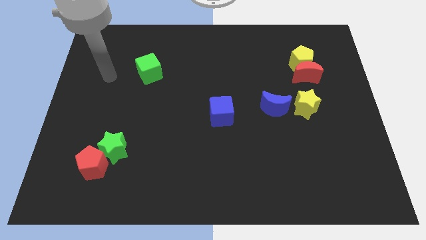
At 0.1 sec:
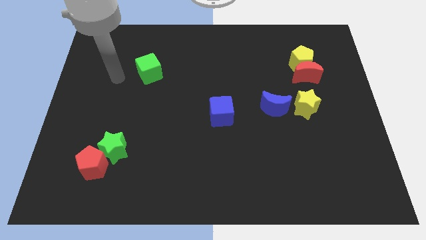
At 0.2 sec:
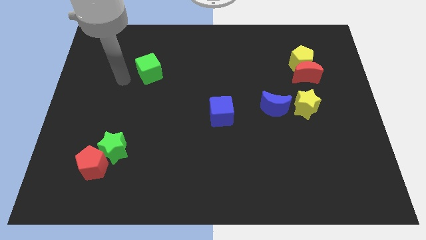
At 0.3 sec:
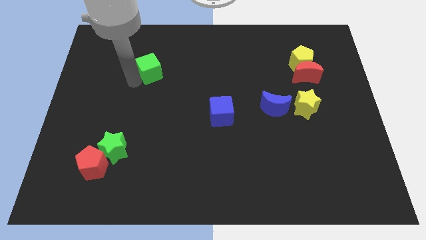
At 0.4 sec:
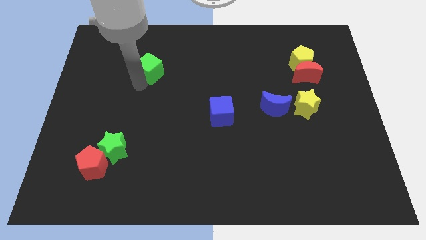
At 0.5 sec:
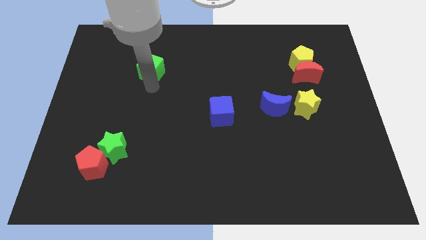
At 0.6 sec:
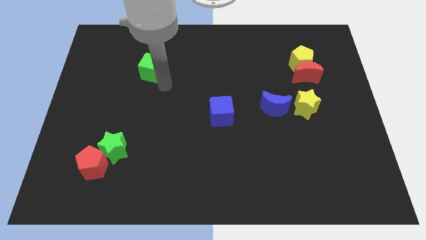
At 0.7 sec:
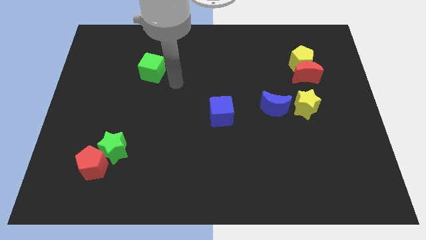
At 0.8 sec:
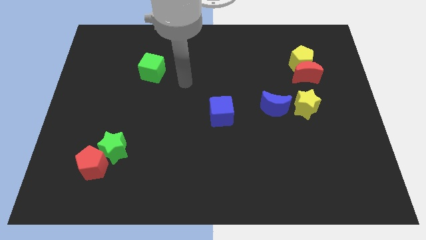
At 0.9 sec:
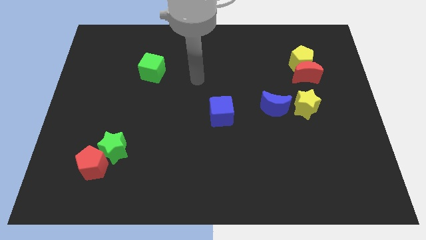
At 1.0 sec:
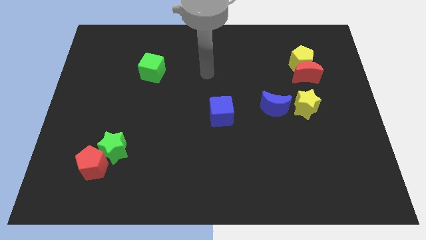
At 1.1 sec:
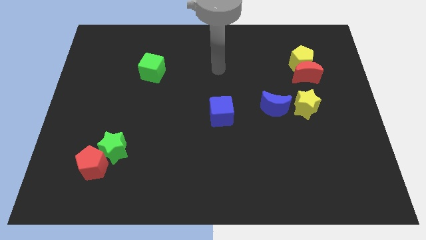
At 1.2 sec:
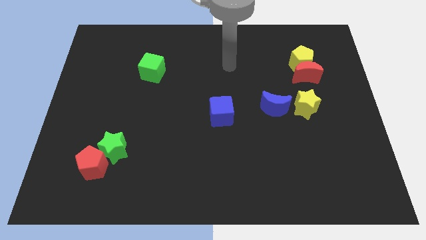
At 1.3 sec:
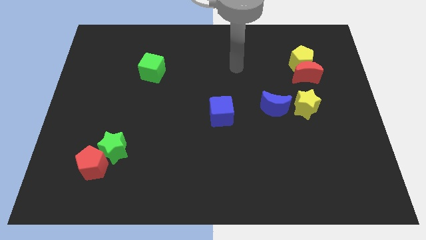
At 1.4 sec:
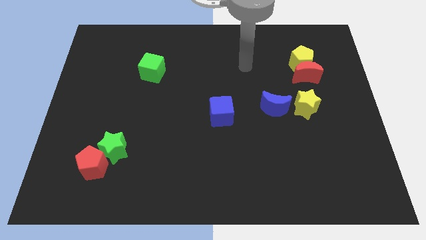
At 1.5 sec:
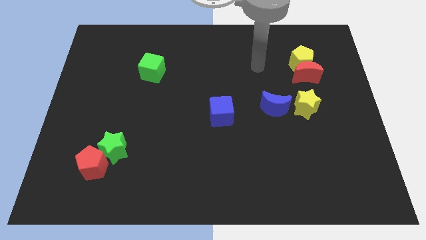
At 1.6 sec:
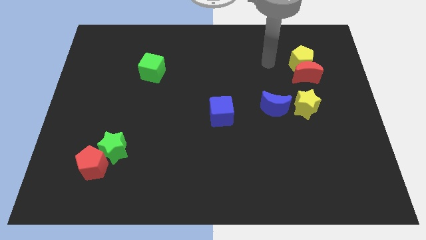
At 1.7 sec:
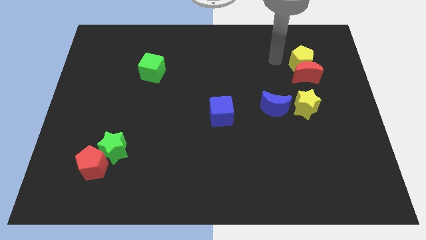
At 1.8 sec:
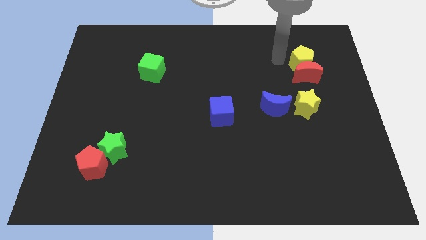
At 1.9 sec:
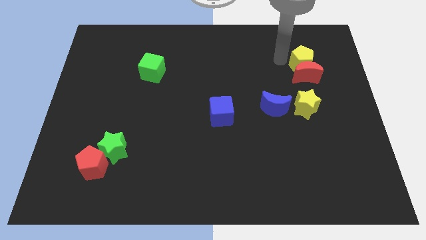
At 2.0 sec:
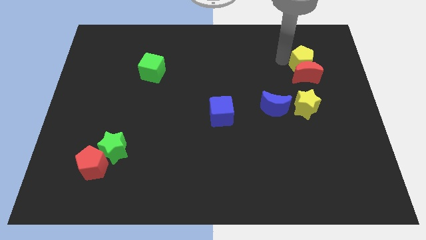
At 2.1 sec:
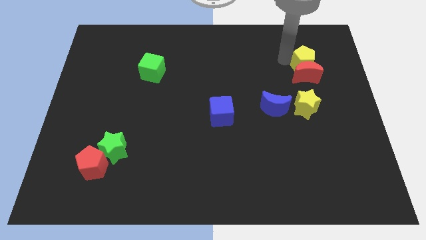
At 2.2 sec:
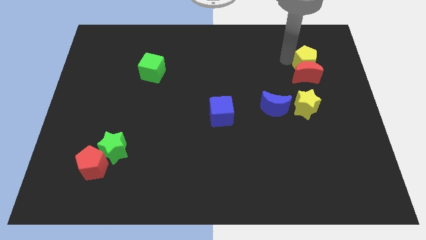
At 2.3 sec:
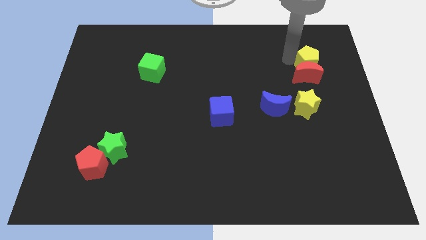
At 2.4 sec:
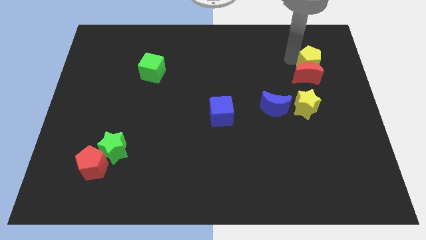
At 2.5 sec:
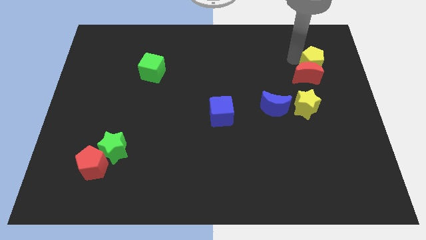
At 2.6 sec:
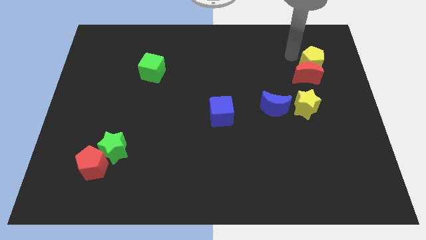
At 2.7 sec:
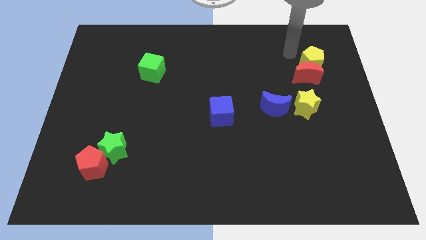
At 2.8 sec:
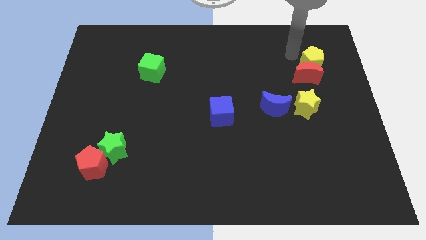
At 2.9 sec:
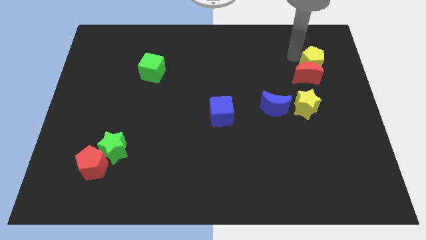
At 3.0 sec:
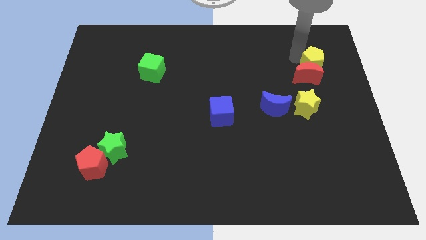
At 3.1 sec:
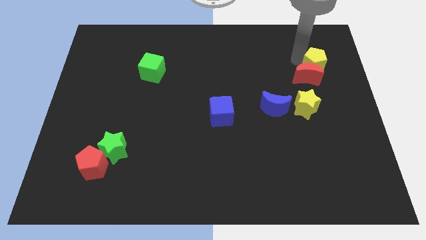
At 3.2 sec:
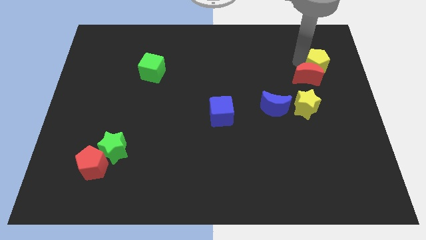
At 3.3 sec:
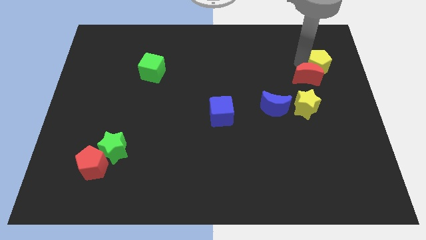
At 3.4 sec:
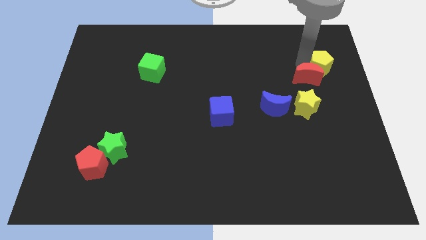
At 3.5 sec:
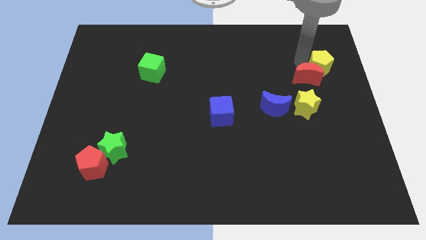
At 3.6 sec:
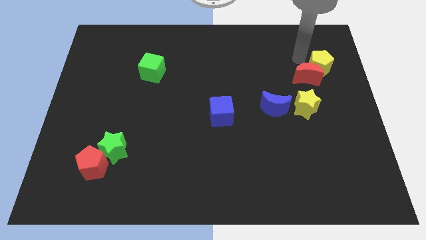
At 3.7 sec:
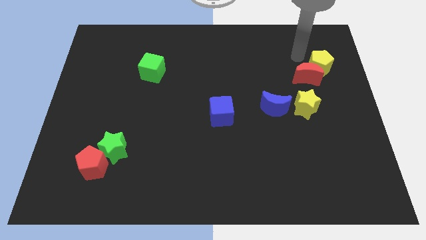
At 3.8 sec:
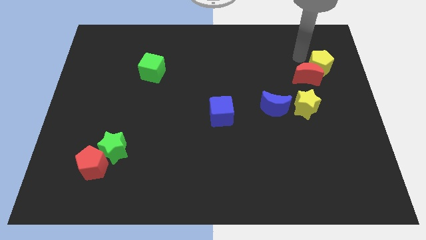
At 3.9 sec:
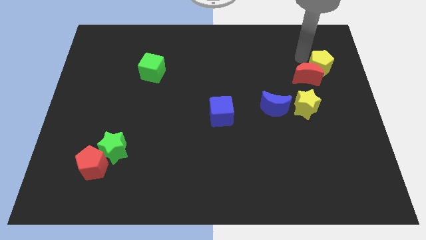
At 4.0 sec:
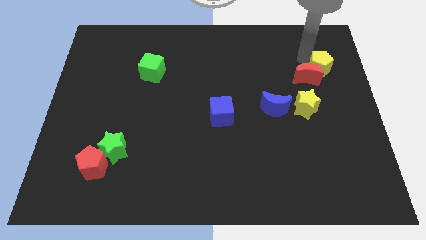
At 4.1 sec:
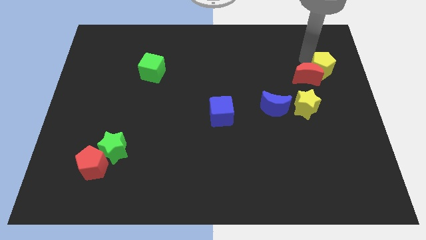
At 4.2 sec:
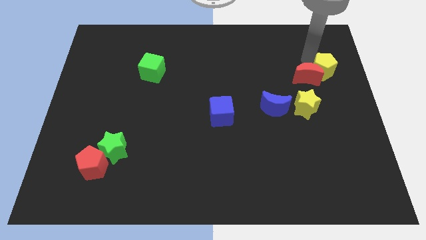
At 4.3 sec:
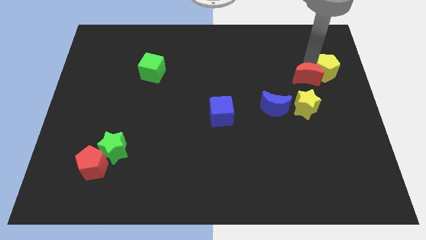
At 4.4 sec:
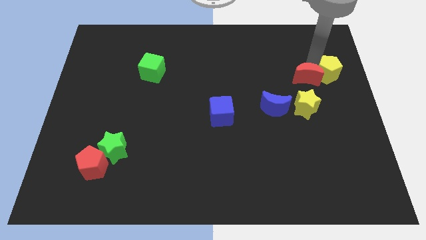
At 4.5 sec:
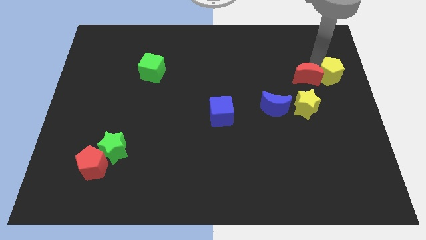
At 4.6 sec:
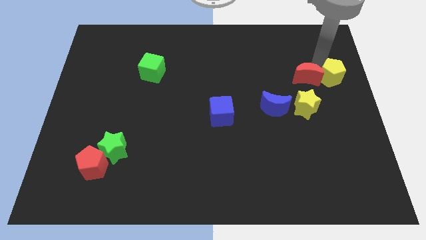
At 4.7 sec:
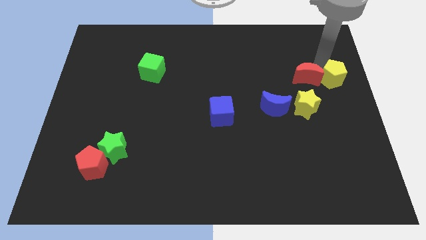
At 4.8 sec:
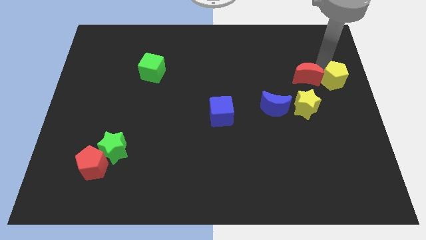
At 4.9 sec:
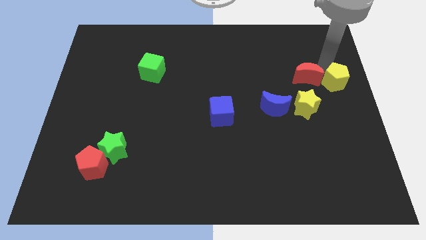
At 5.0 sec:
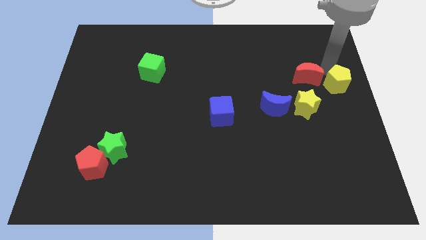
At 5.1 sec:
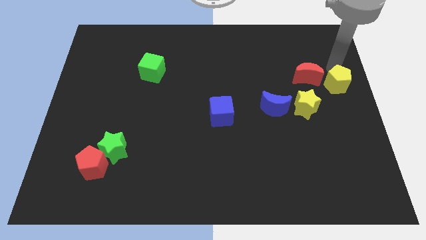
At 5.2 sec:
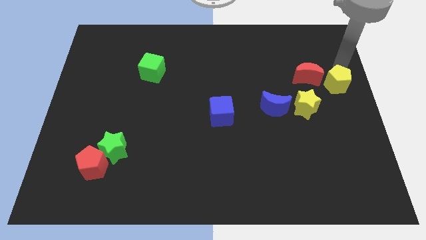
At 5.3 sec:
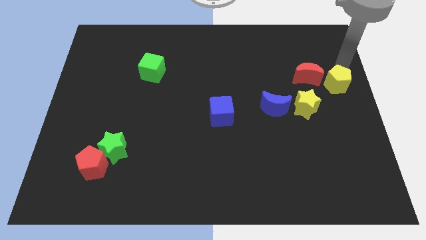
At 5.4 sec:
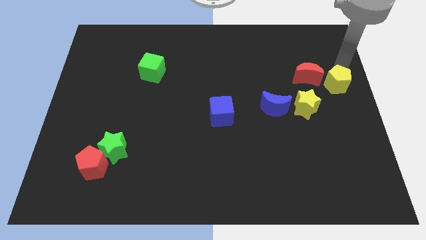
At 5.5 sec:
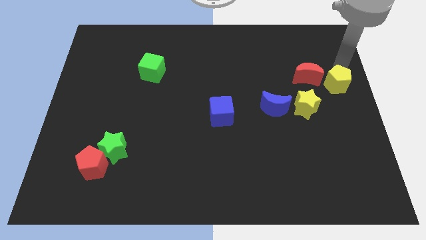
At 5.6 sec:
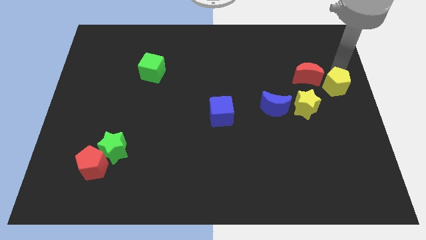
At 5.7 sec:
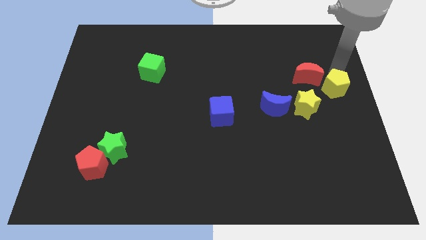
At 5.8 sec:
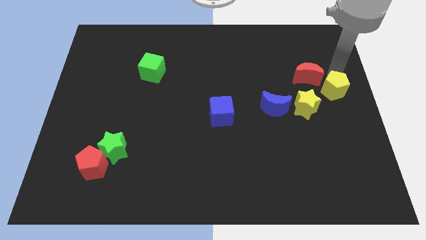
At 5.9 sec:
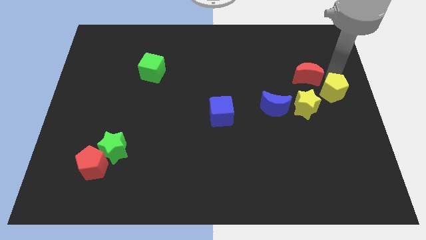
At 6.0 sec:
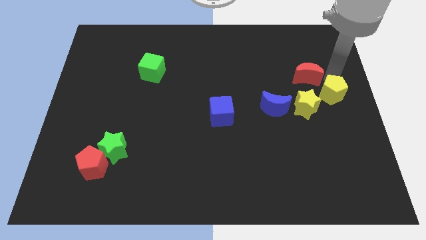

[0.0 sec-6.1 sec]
slide the yellow pentagon to the bottom of the red moon

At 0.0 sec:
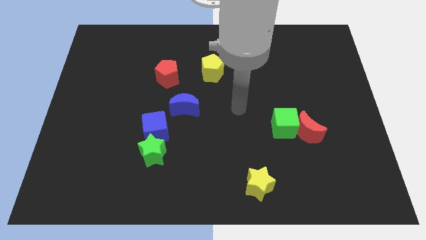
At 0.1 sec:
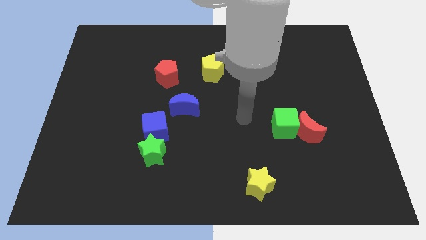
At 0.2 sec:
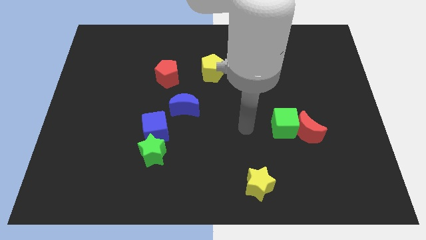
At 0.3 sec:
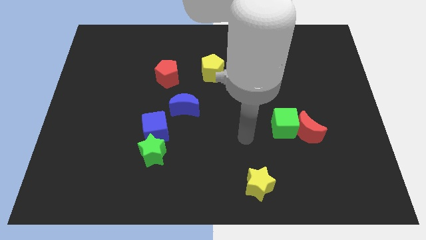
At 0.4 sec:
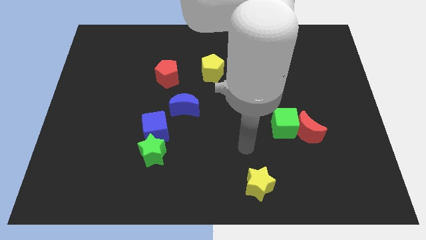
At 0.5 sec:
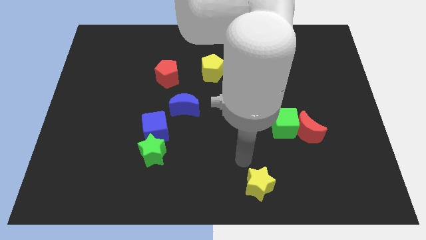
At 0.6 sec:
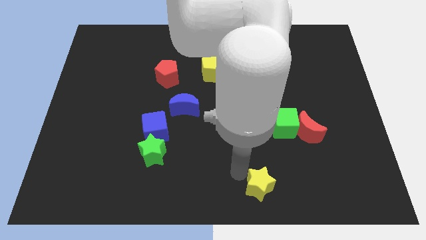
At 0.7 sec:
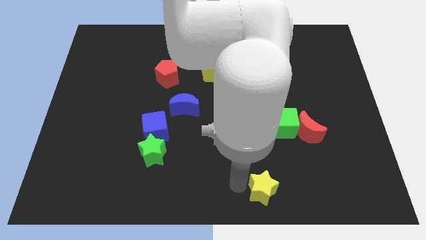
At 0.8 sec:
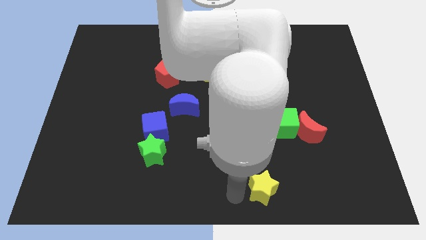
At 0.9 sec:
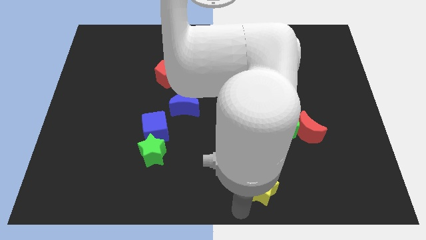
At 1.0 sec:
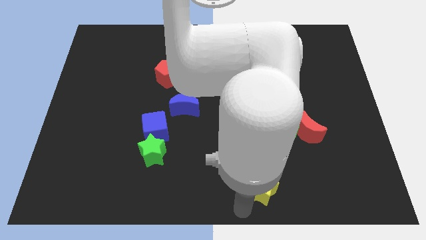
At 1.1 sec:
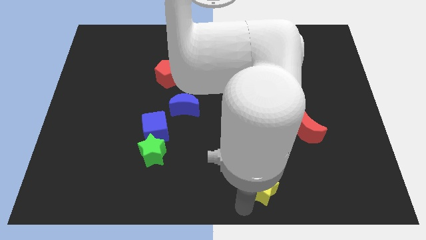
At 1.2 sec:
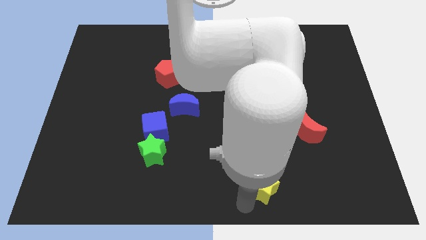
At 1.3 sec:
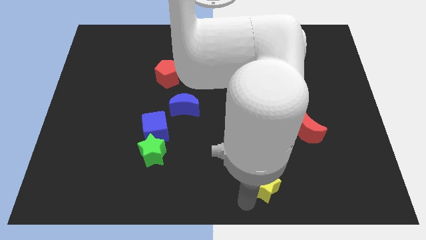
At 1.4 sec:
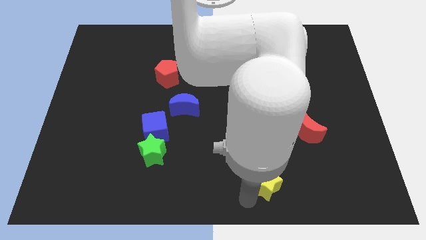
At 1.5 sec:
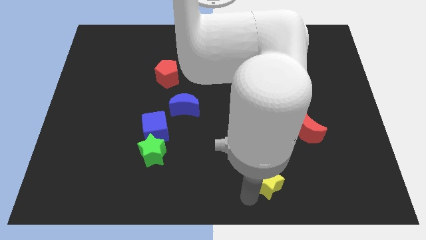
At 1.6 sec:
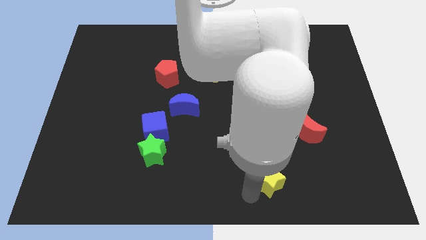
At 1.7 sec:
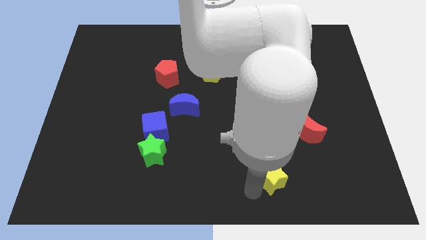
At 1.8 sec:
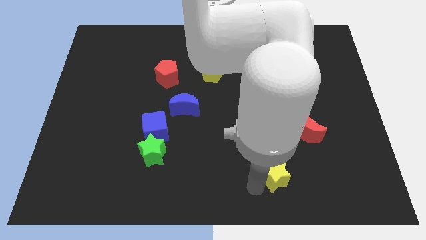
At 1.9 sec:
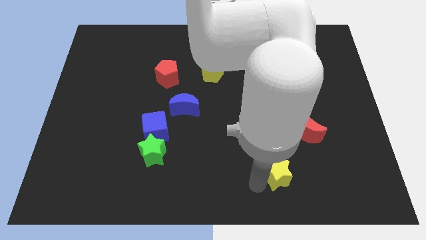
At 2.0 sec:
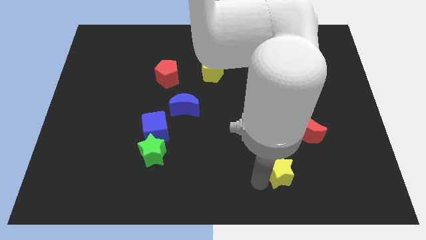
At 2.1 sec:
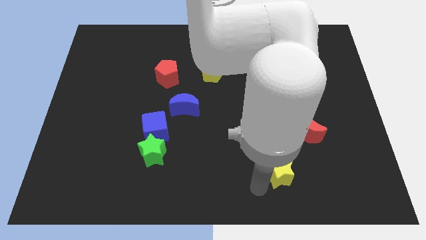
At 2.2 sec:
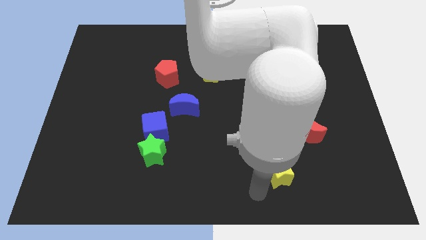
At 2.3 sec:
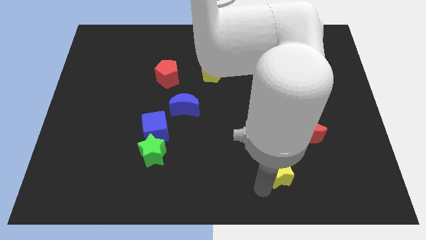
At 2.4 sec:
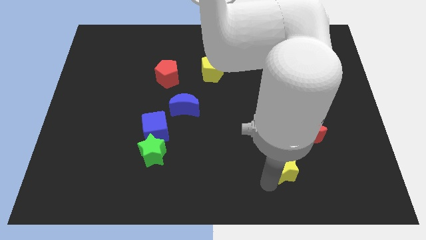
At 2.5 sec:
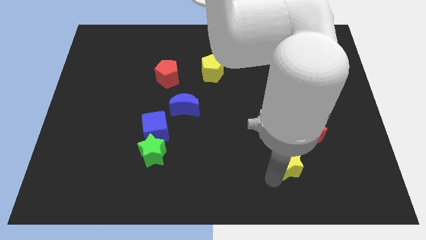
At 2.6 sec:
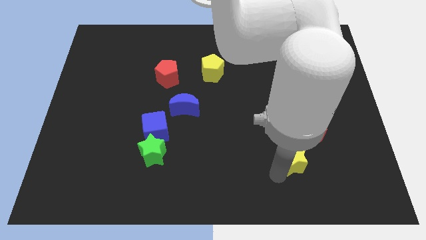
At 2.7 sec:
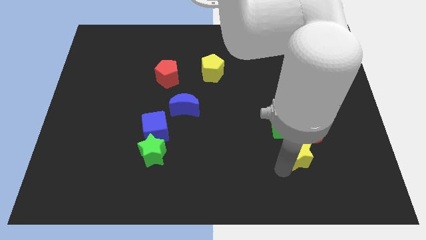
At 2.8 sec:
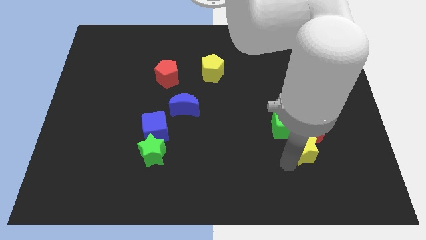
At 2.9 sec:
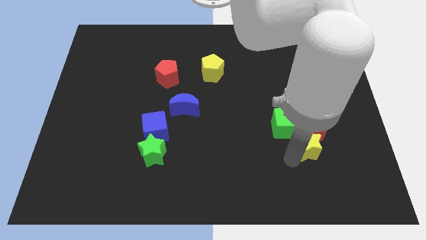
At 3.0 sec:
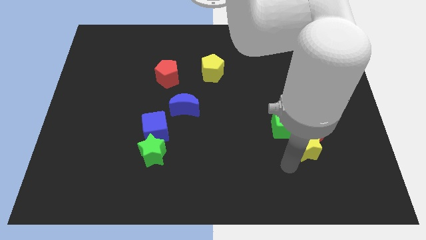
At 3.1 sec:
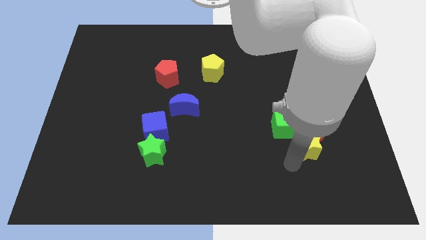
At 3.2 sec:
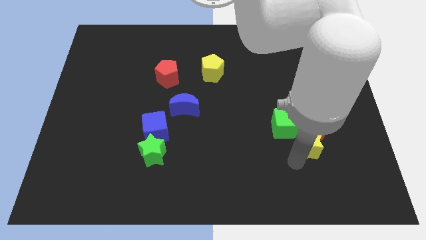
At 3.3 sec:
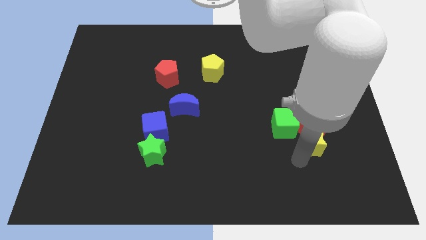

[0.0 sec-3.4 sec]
slide the yellow star to the right of the green cube
